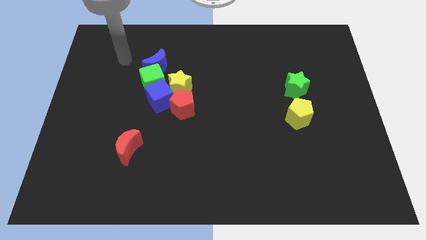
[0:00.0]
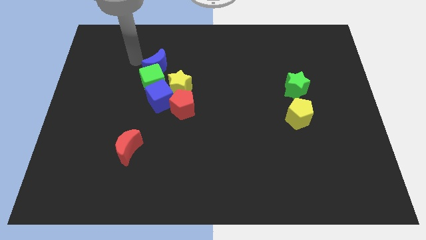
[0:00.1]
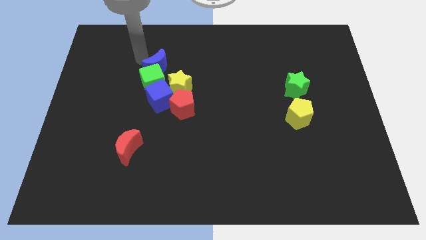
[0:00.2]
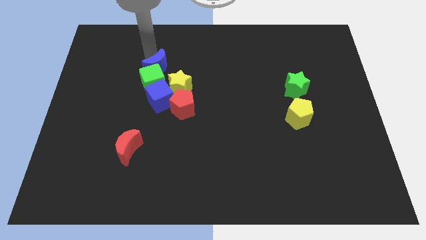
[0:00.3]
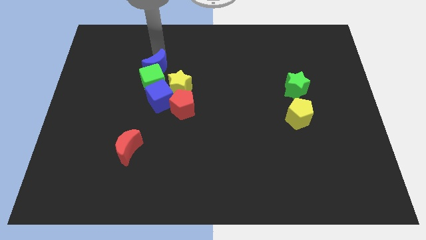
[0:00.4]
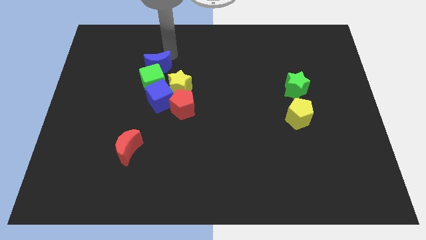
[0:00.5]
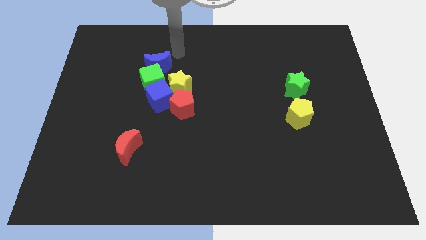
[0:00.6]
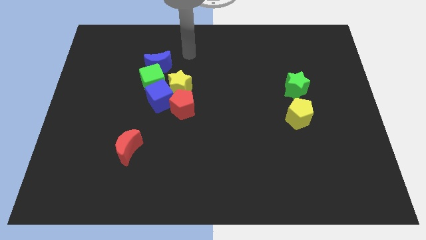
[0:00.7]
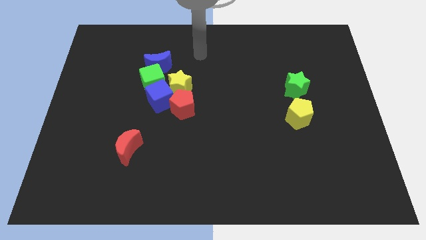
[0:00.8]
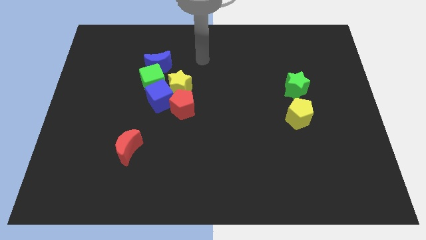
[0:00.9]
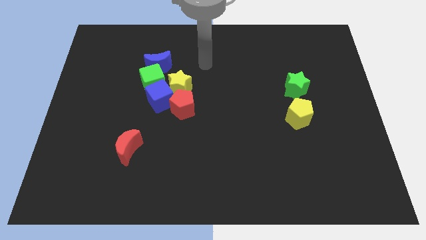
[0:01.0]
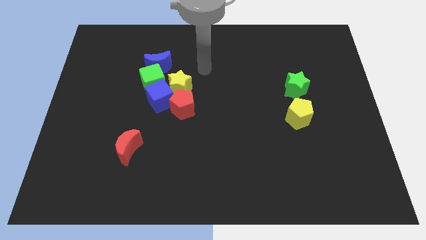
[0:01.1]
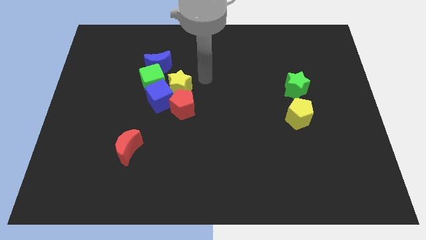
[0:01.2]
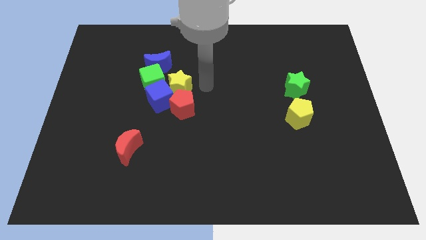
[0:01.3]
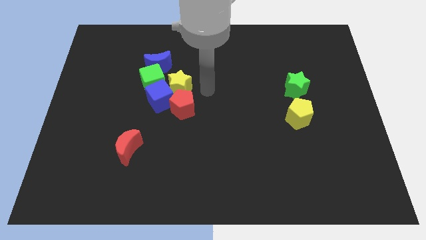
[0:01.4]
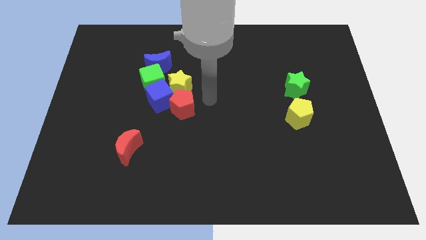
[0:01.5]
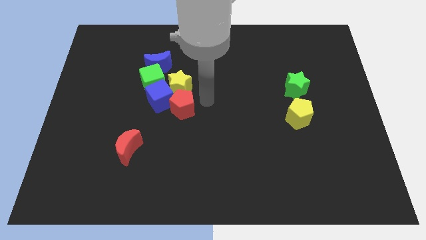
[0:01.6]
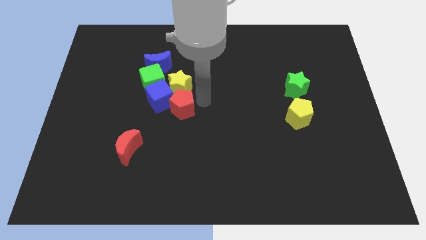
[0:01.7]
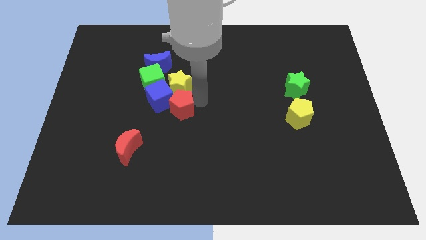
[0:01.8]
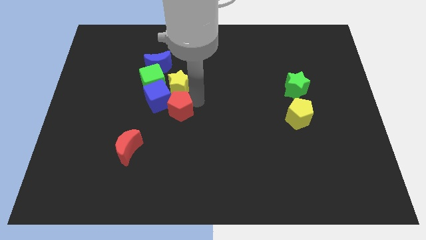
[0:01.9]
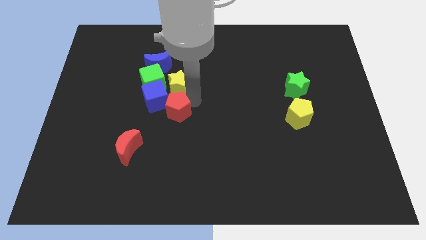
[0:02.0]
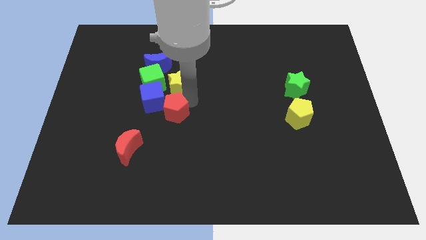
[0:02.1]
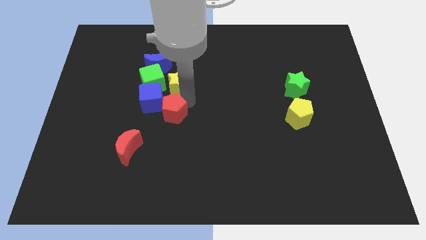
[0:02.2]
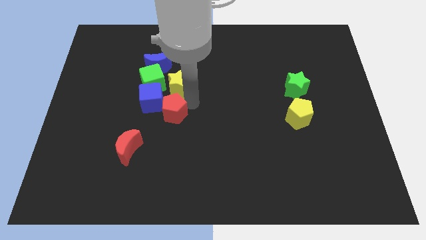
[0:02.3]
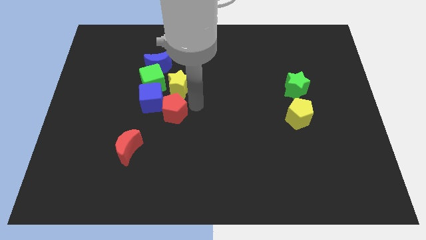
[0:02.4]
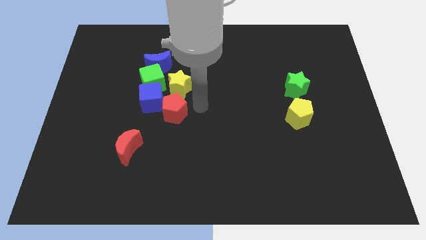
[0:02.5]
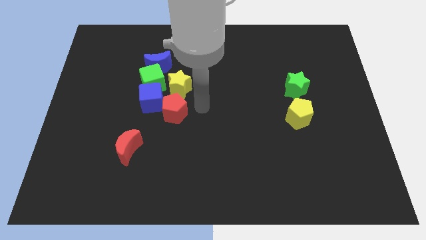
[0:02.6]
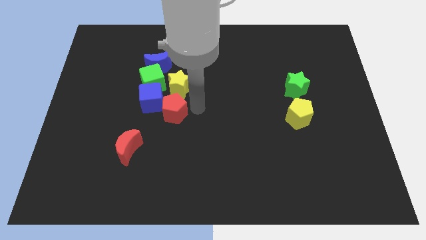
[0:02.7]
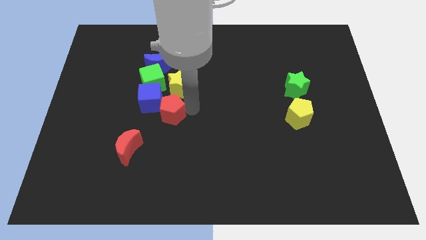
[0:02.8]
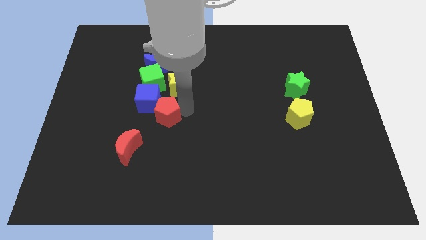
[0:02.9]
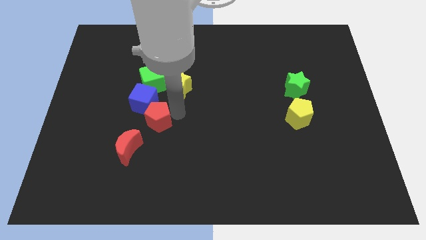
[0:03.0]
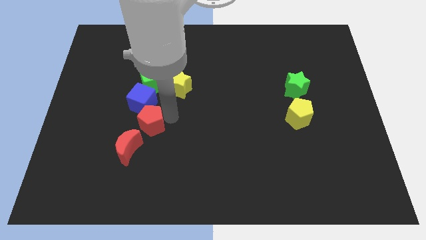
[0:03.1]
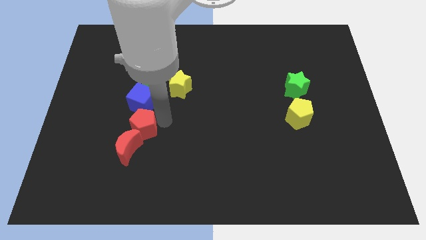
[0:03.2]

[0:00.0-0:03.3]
slightly slide the red pentagon left

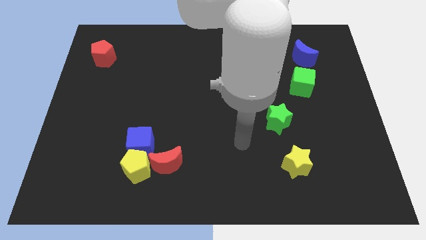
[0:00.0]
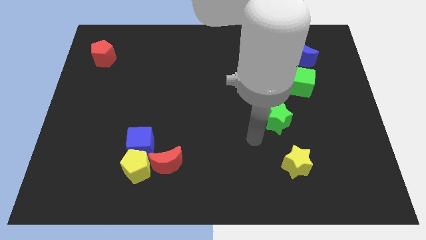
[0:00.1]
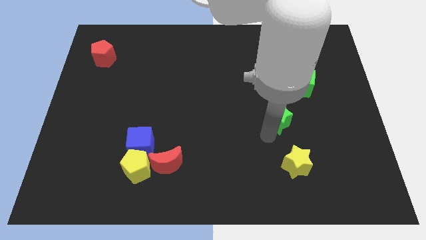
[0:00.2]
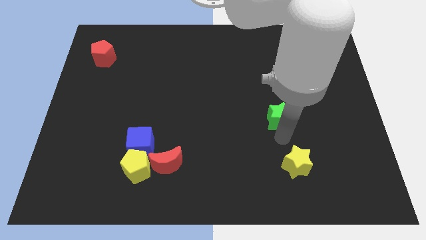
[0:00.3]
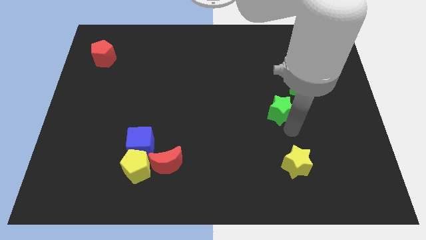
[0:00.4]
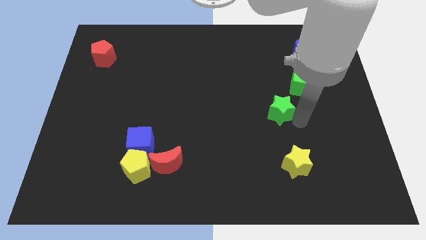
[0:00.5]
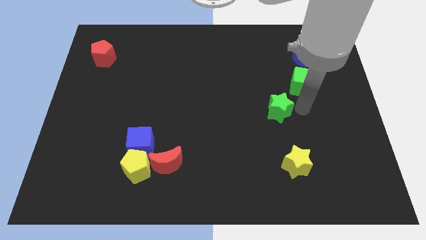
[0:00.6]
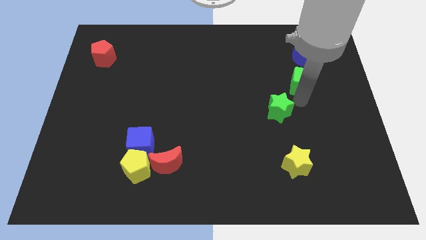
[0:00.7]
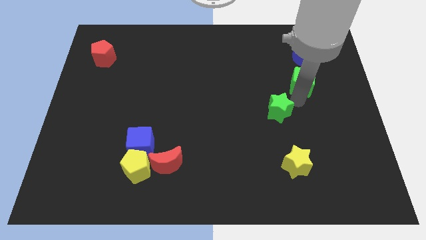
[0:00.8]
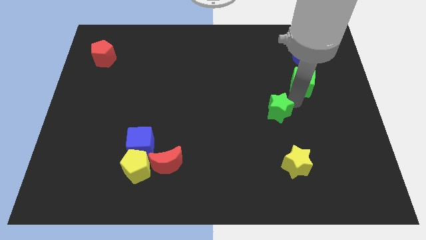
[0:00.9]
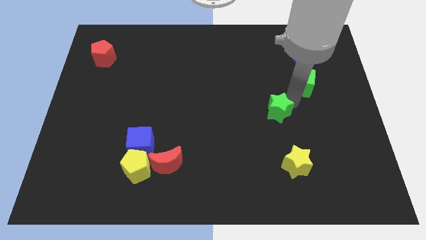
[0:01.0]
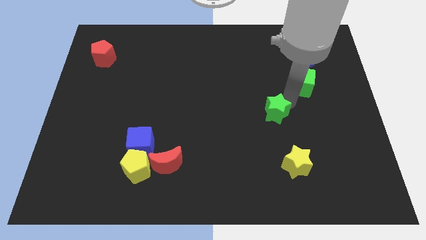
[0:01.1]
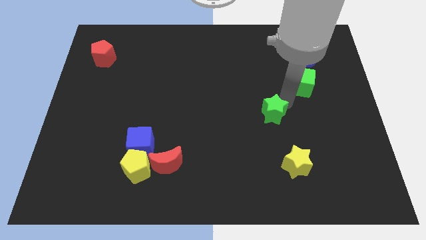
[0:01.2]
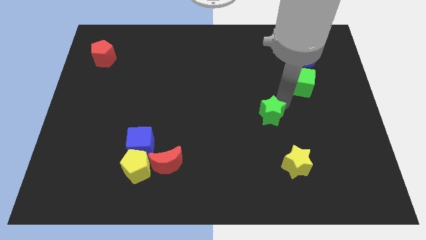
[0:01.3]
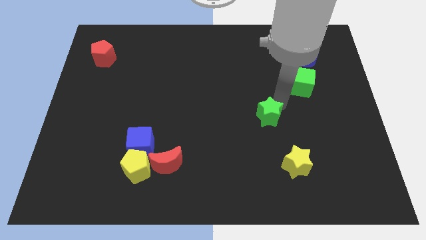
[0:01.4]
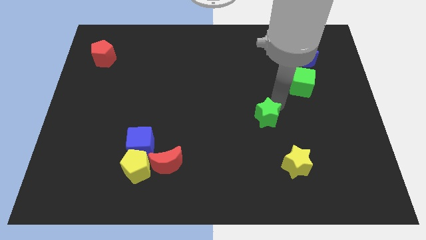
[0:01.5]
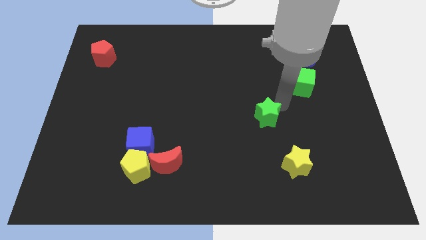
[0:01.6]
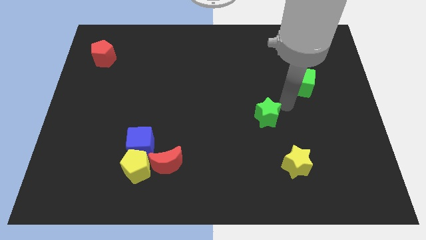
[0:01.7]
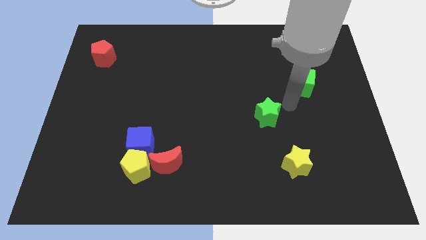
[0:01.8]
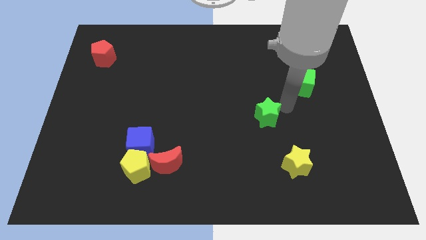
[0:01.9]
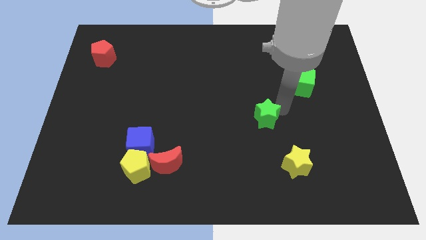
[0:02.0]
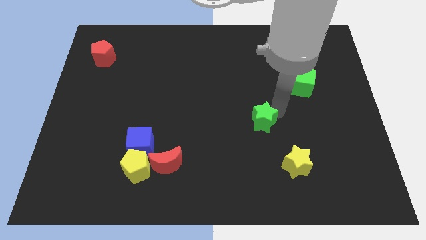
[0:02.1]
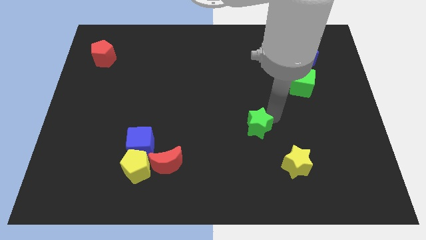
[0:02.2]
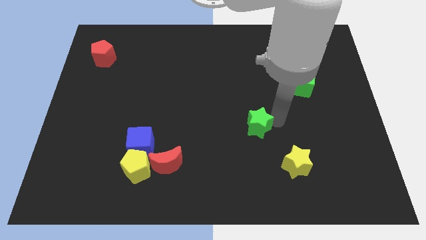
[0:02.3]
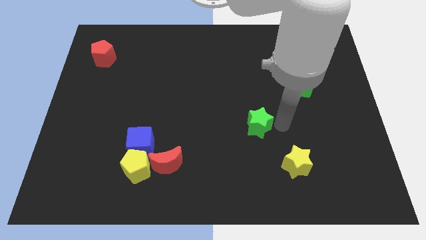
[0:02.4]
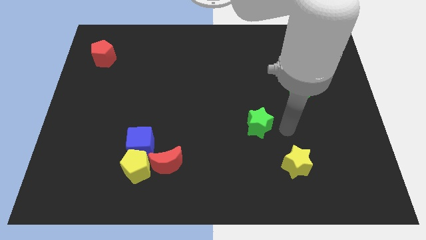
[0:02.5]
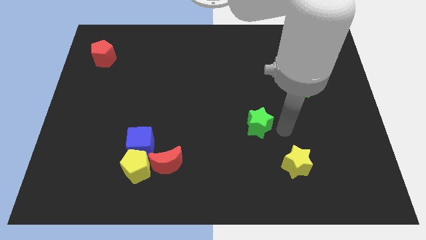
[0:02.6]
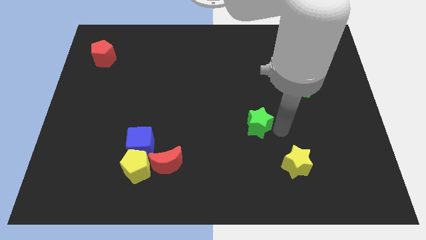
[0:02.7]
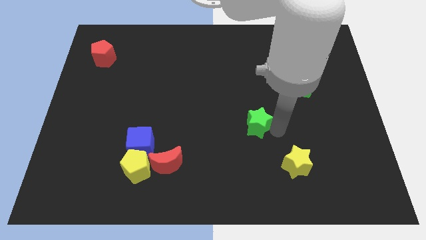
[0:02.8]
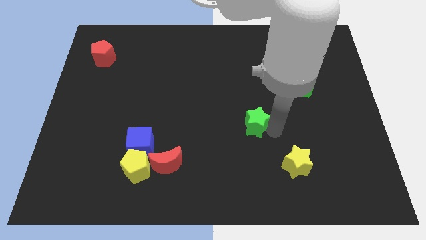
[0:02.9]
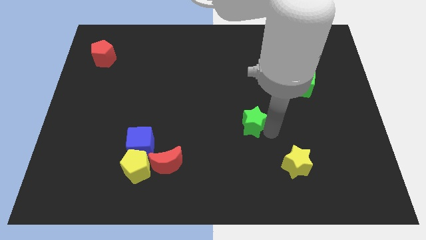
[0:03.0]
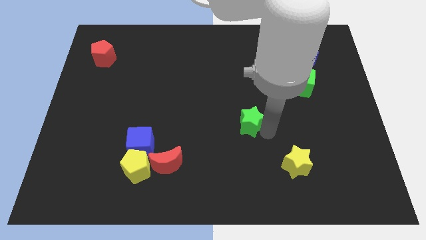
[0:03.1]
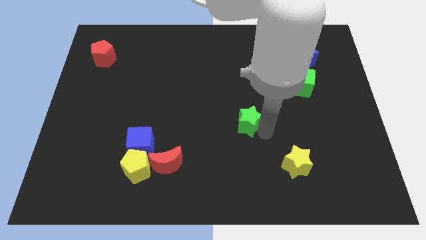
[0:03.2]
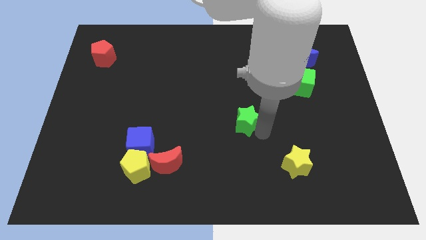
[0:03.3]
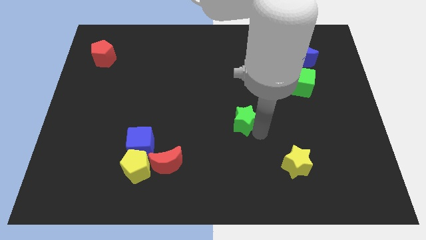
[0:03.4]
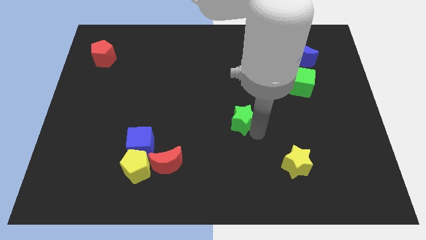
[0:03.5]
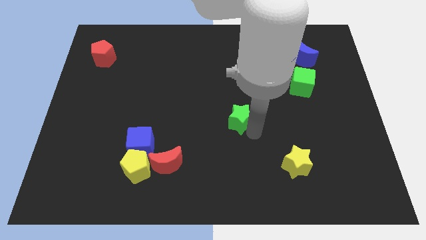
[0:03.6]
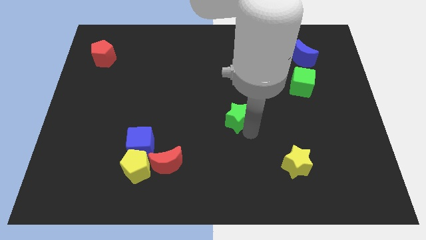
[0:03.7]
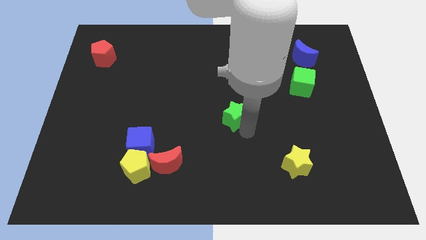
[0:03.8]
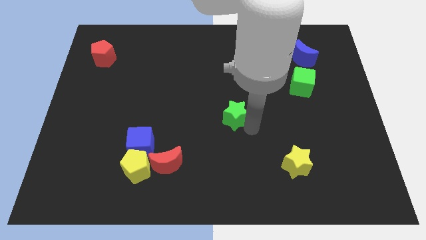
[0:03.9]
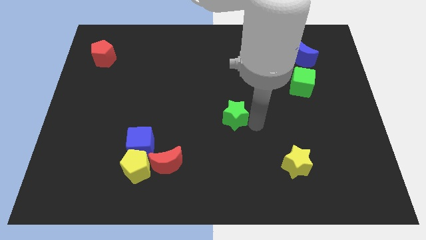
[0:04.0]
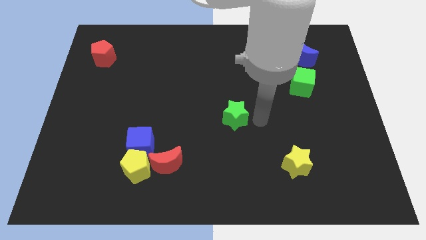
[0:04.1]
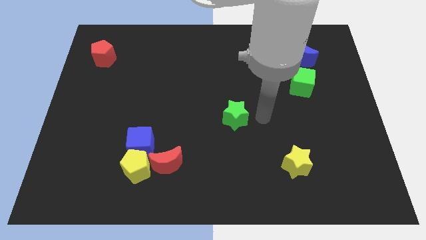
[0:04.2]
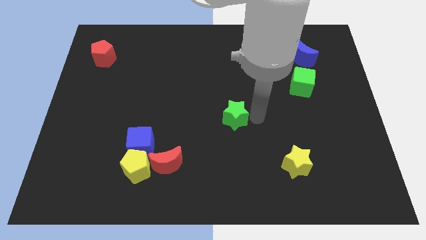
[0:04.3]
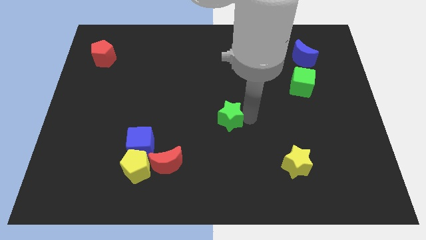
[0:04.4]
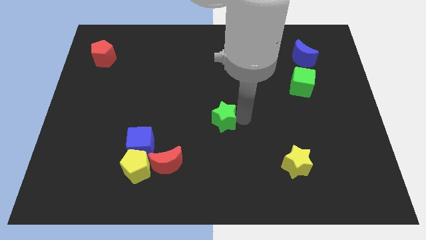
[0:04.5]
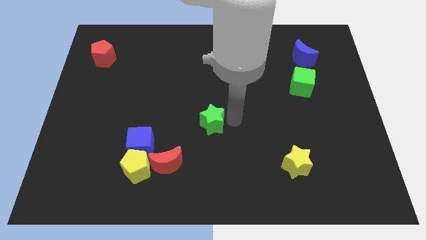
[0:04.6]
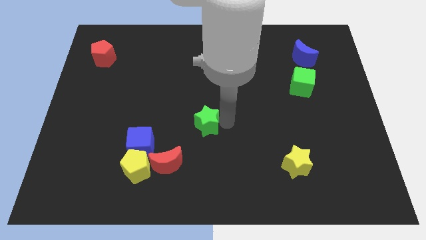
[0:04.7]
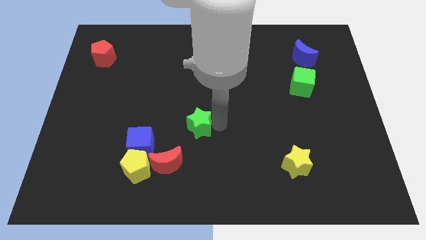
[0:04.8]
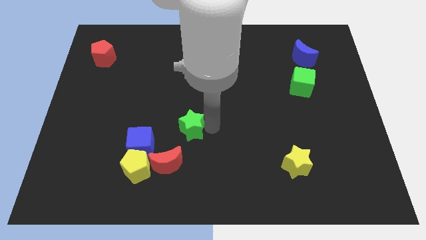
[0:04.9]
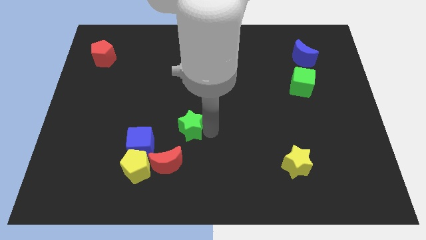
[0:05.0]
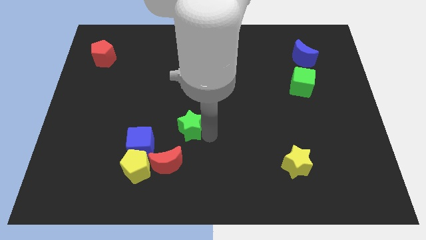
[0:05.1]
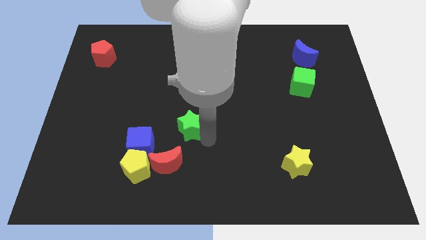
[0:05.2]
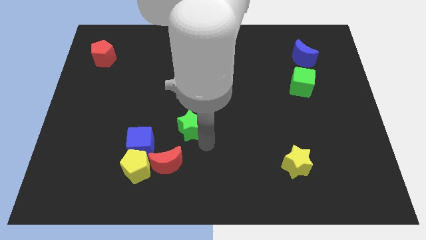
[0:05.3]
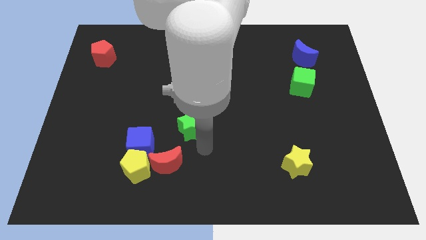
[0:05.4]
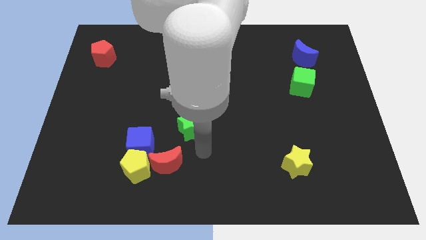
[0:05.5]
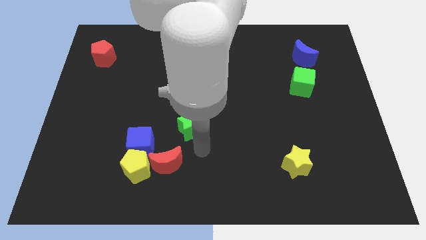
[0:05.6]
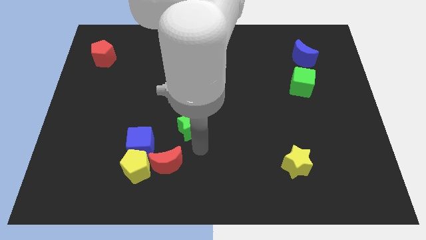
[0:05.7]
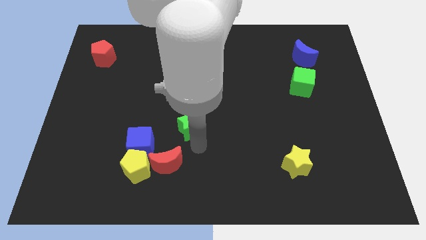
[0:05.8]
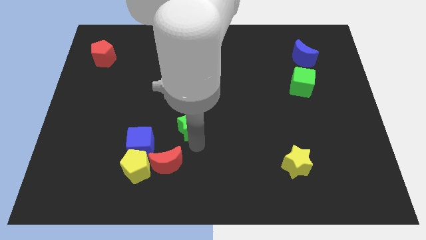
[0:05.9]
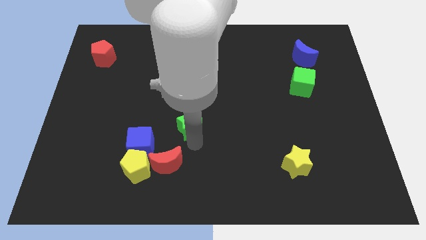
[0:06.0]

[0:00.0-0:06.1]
slide the green star to the left
